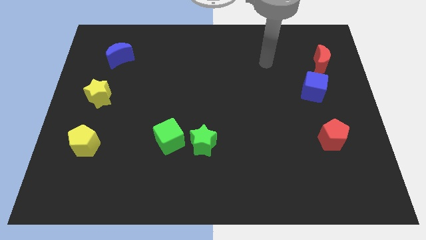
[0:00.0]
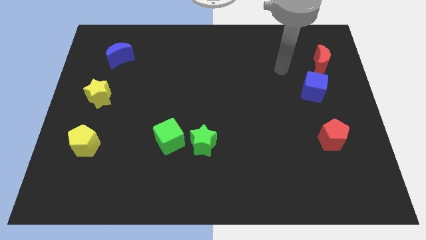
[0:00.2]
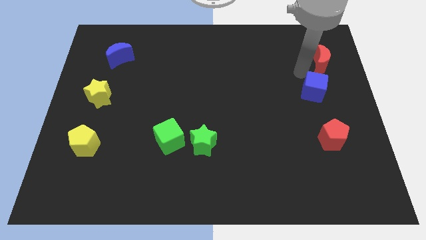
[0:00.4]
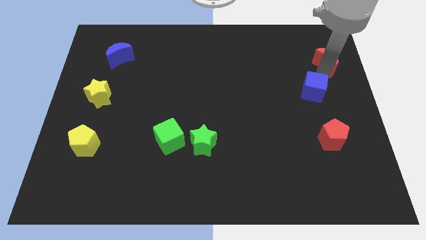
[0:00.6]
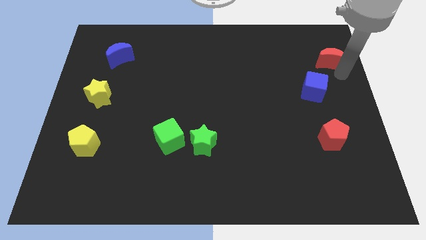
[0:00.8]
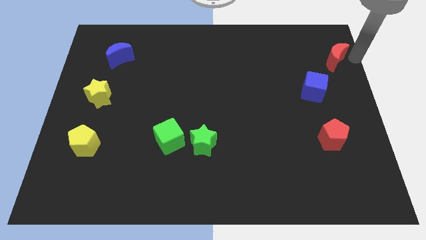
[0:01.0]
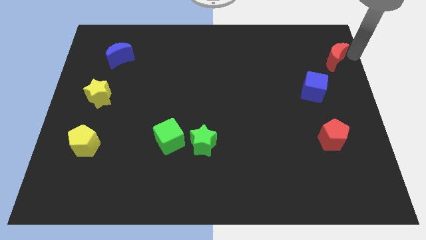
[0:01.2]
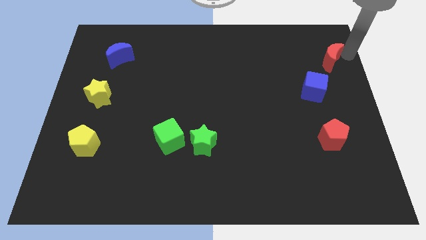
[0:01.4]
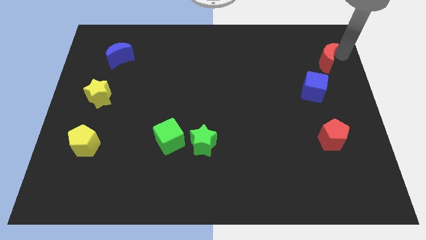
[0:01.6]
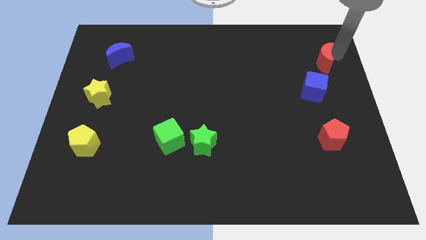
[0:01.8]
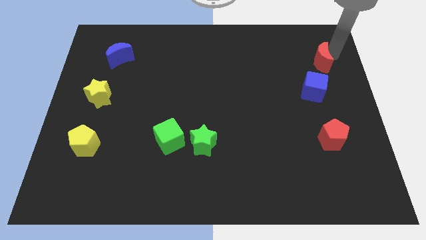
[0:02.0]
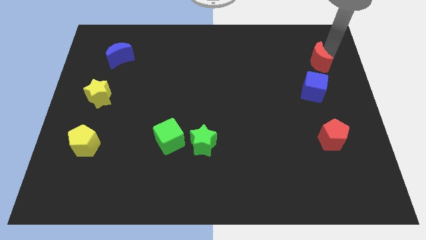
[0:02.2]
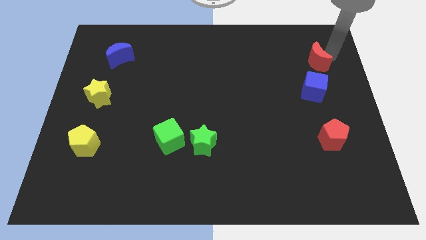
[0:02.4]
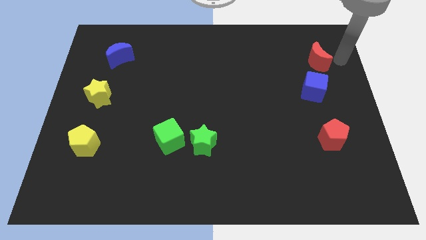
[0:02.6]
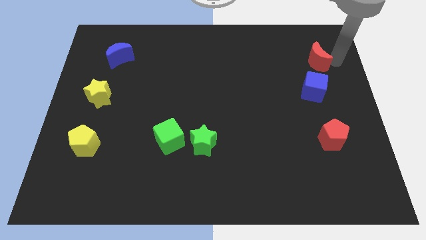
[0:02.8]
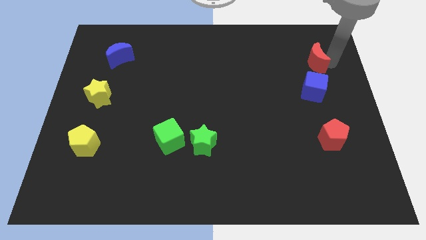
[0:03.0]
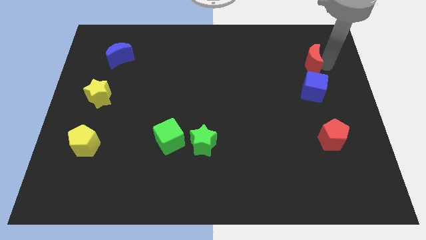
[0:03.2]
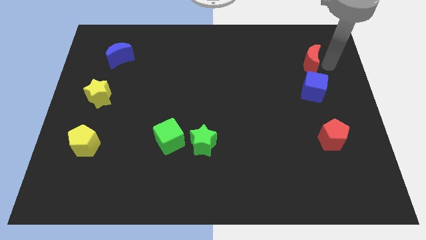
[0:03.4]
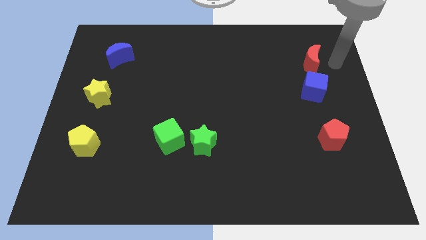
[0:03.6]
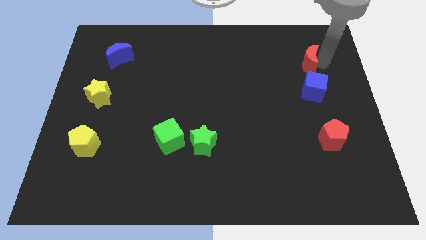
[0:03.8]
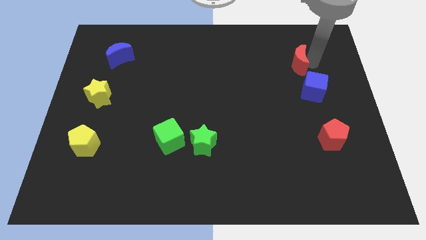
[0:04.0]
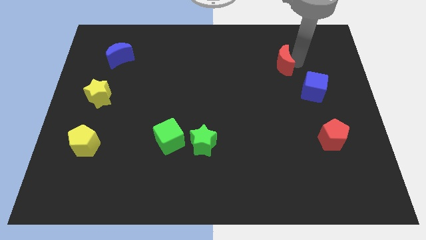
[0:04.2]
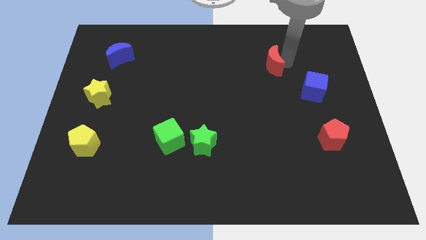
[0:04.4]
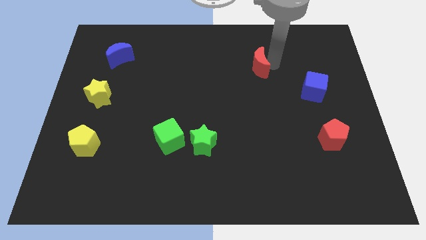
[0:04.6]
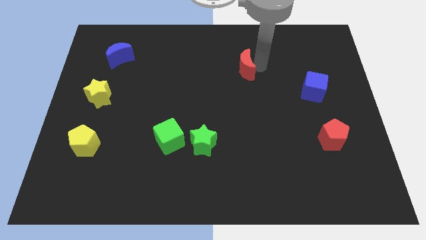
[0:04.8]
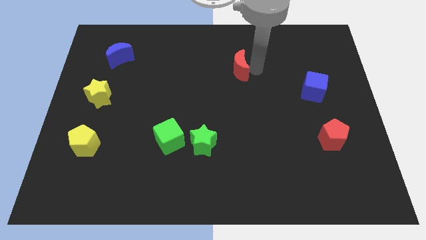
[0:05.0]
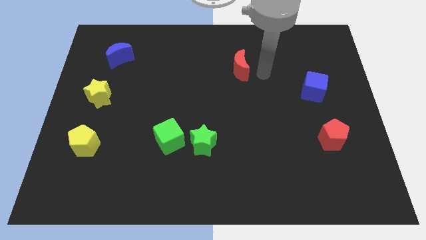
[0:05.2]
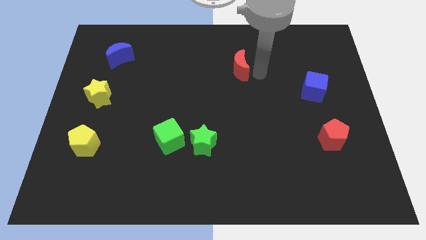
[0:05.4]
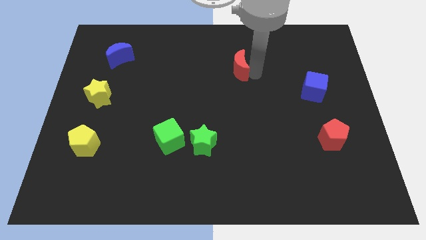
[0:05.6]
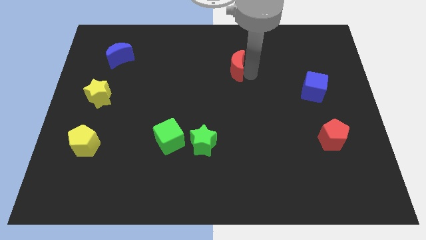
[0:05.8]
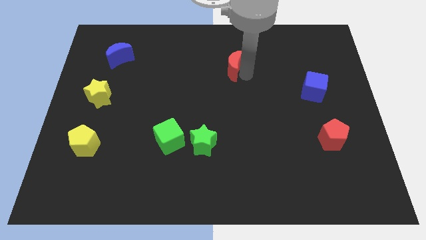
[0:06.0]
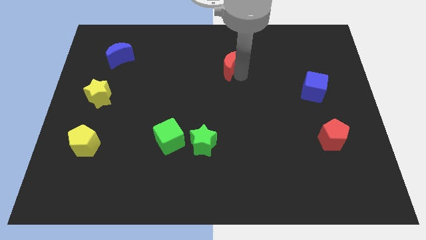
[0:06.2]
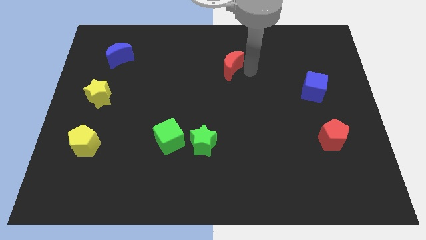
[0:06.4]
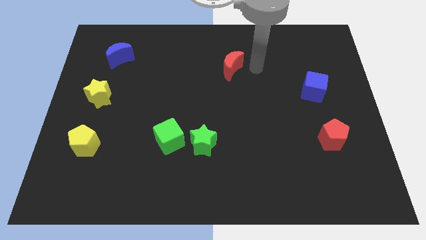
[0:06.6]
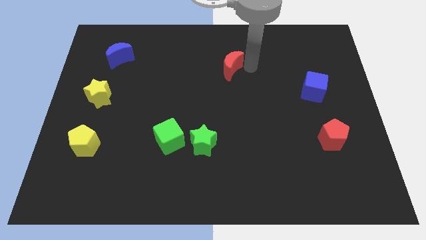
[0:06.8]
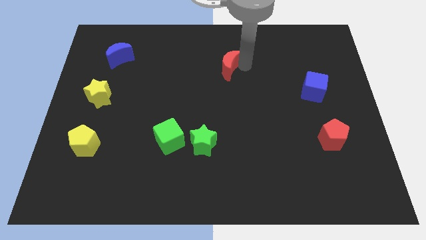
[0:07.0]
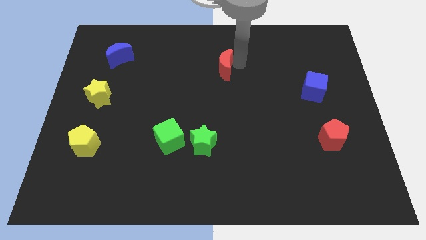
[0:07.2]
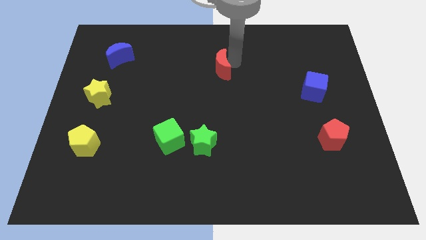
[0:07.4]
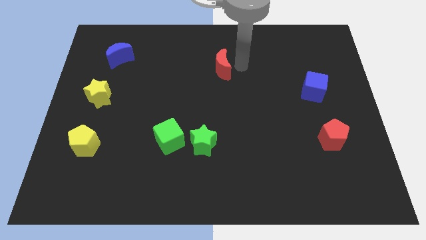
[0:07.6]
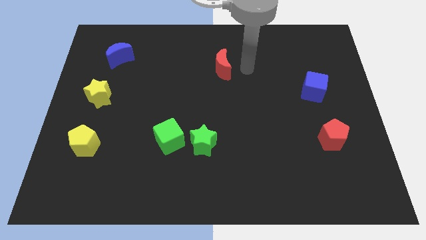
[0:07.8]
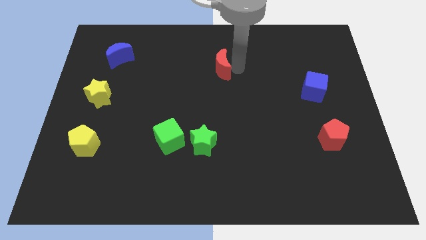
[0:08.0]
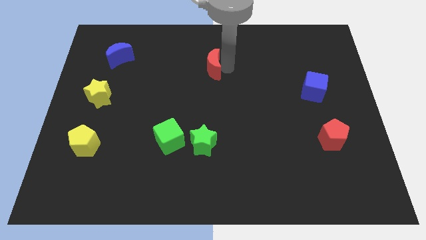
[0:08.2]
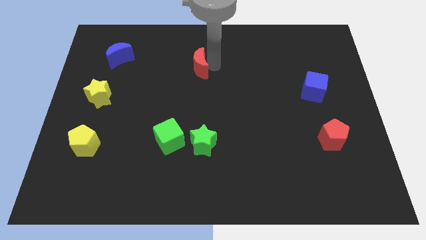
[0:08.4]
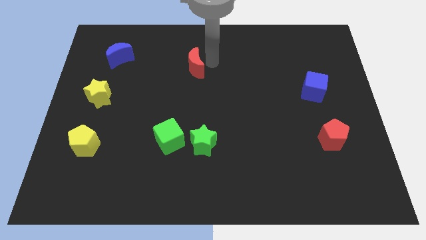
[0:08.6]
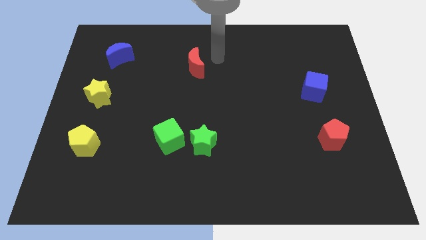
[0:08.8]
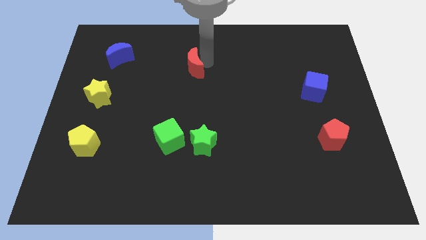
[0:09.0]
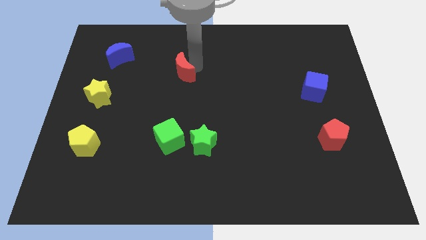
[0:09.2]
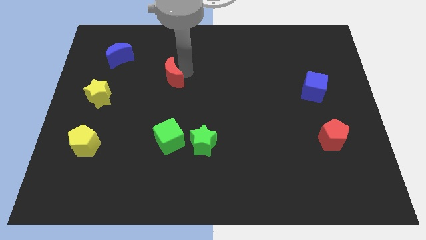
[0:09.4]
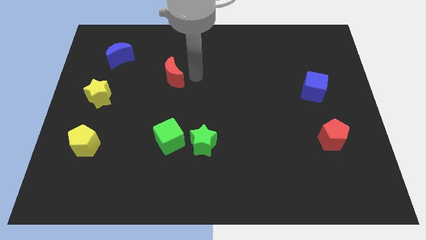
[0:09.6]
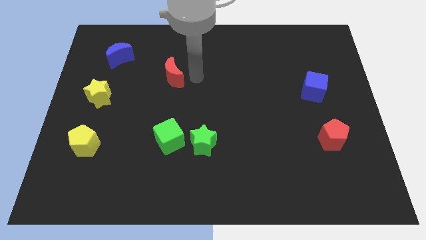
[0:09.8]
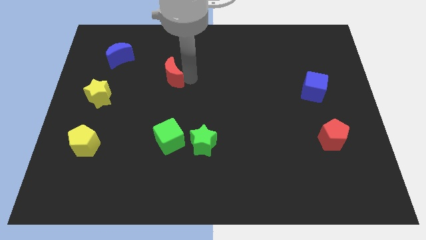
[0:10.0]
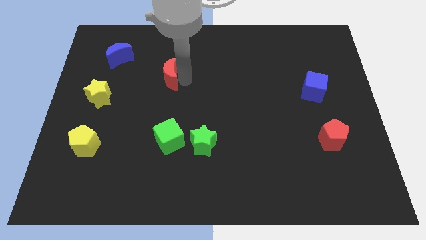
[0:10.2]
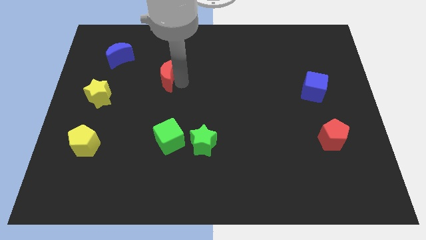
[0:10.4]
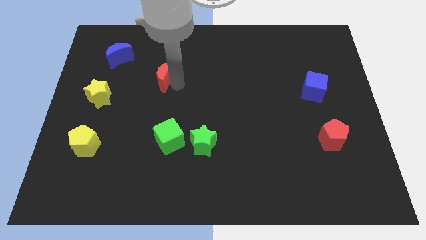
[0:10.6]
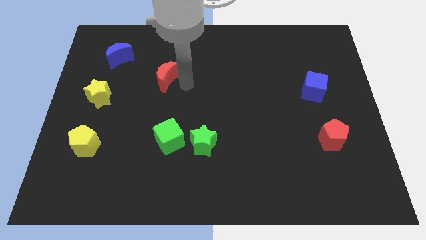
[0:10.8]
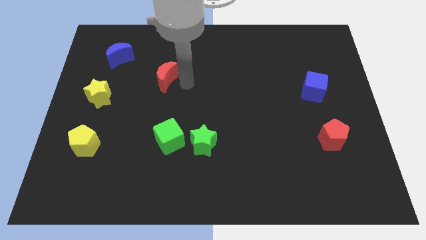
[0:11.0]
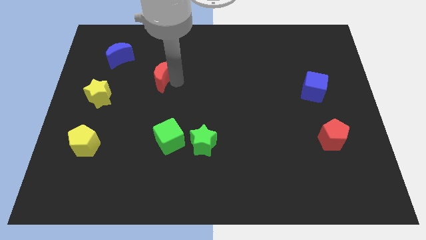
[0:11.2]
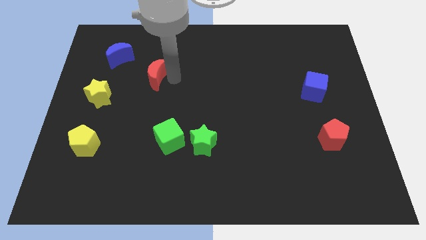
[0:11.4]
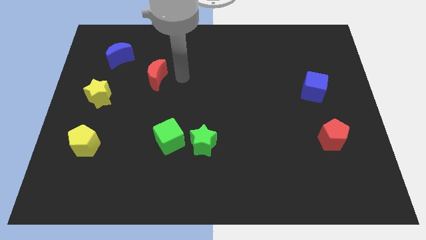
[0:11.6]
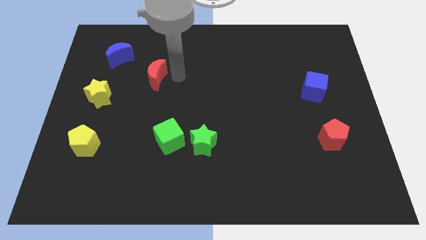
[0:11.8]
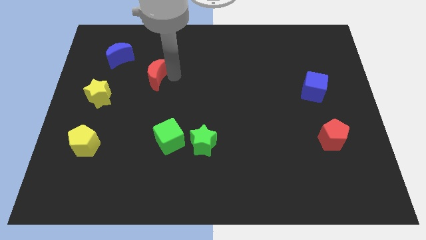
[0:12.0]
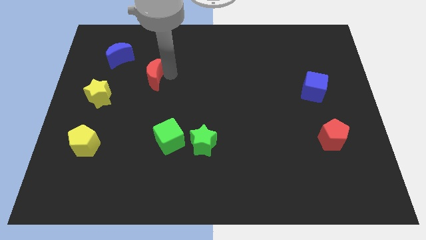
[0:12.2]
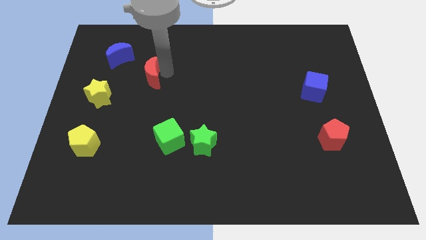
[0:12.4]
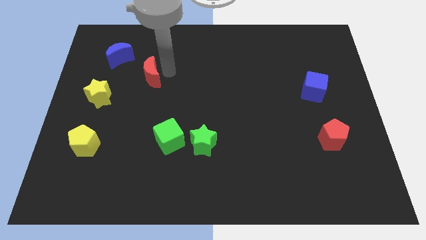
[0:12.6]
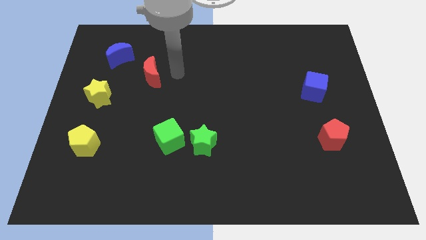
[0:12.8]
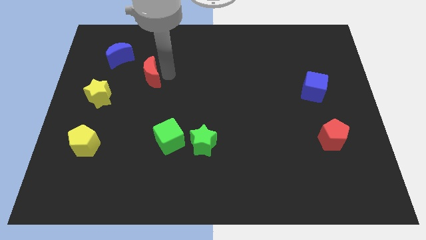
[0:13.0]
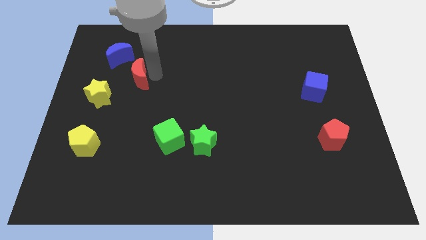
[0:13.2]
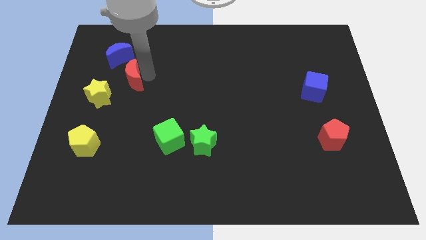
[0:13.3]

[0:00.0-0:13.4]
move the red moon below the blue moon
